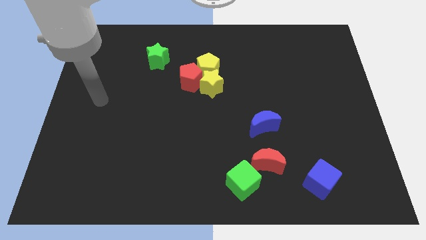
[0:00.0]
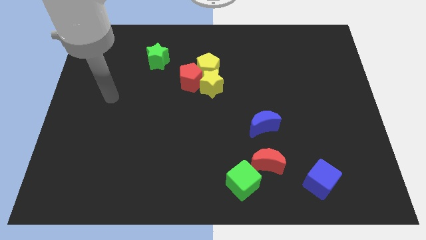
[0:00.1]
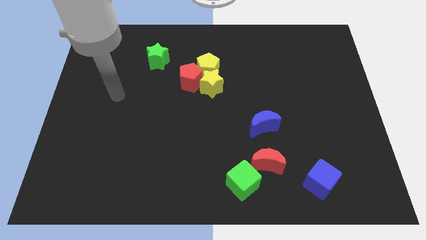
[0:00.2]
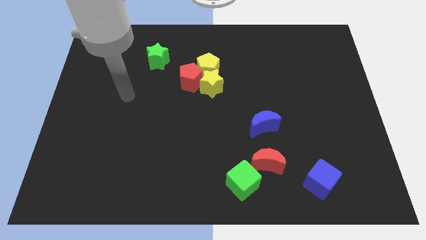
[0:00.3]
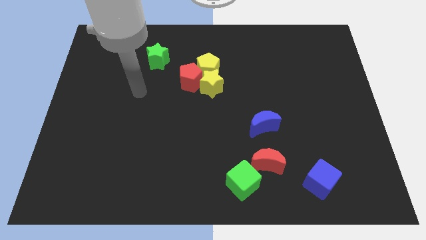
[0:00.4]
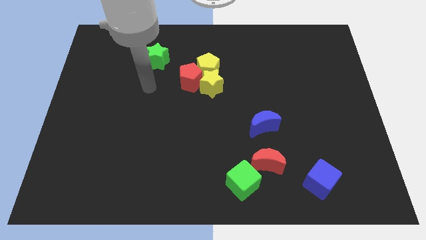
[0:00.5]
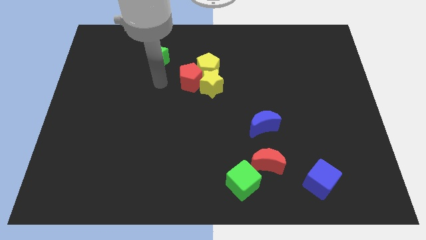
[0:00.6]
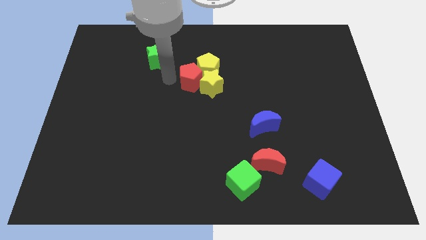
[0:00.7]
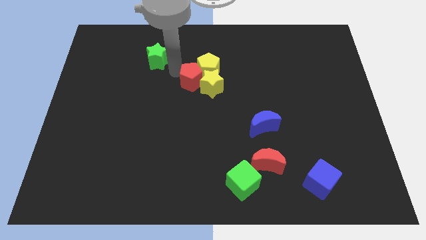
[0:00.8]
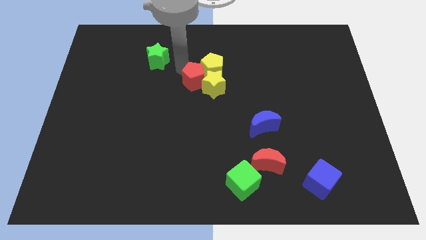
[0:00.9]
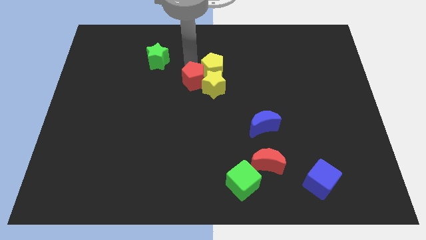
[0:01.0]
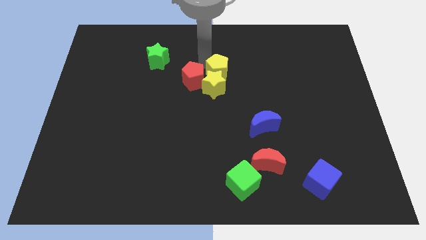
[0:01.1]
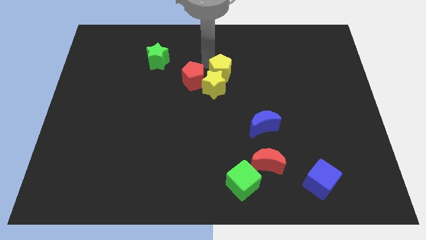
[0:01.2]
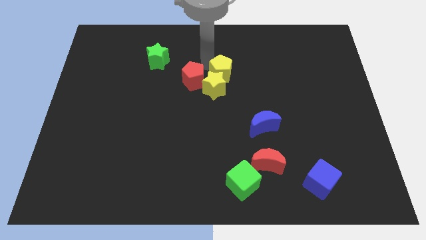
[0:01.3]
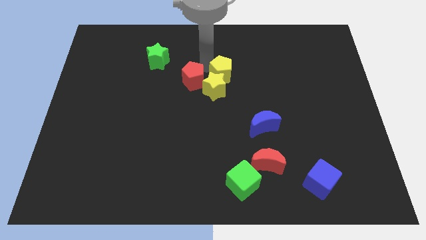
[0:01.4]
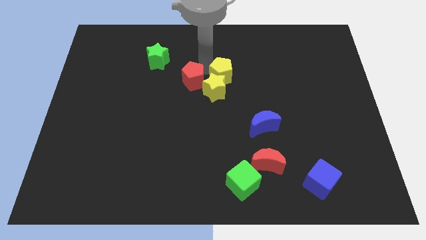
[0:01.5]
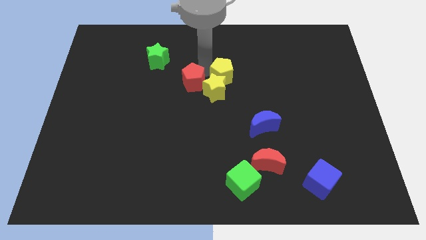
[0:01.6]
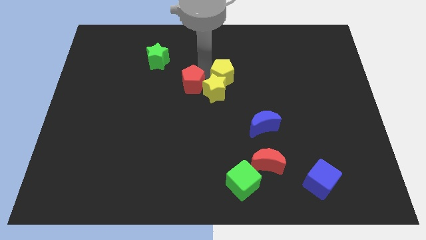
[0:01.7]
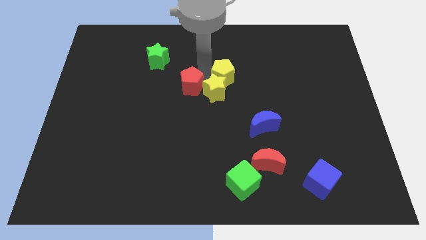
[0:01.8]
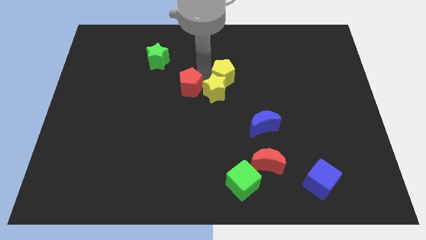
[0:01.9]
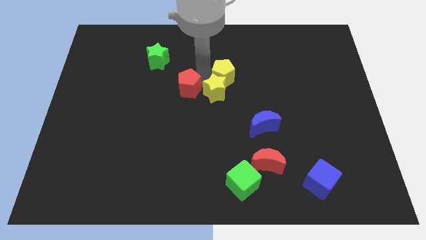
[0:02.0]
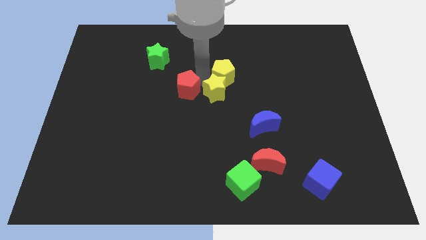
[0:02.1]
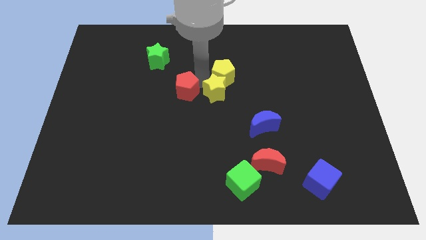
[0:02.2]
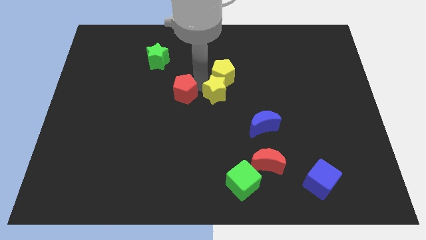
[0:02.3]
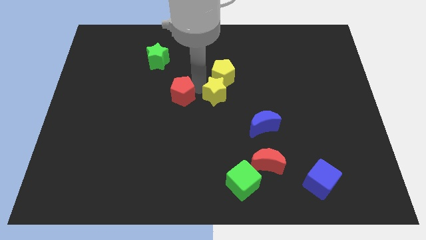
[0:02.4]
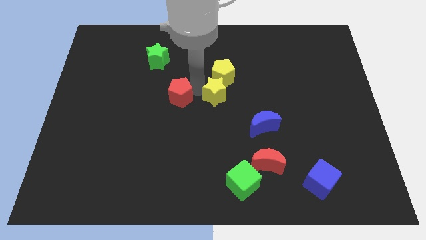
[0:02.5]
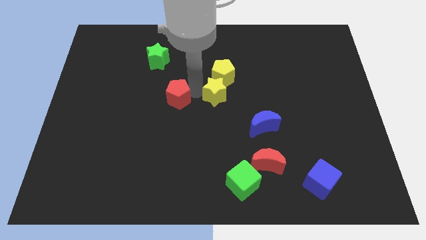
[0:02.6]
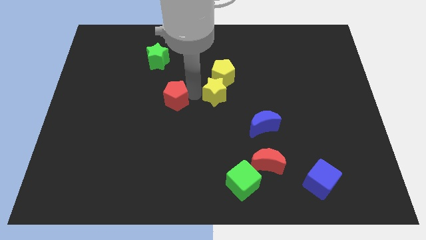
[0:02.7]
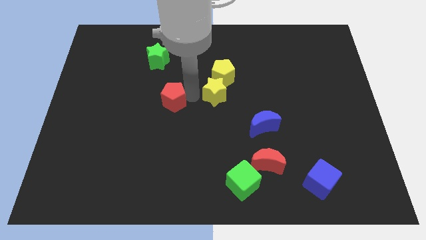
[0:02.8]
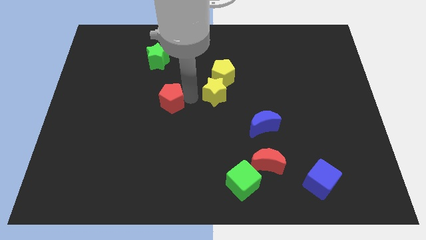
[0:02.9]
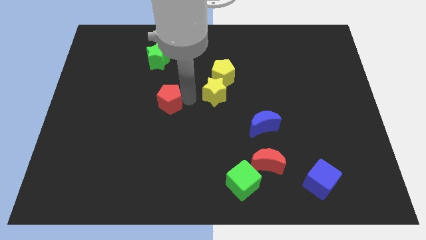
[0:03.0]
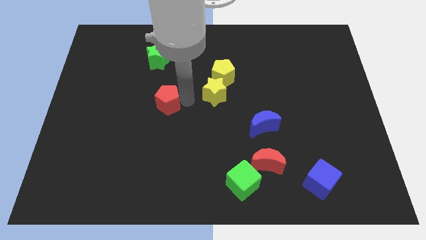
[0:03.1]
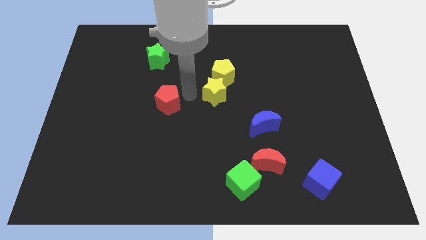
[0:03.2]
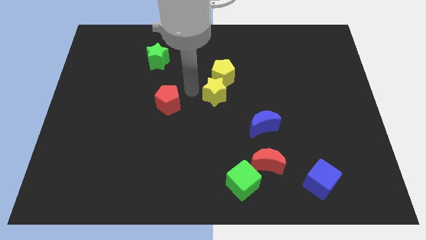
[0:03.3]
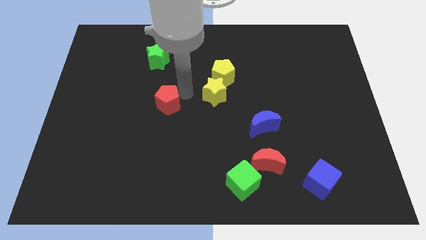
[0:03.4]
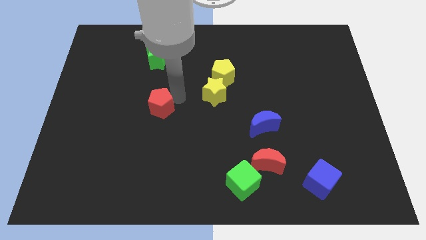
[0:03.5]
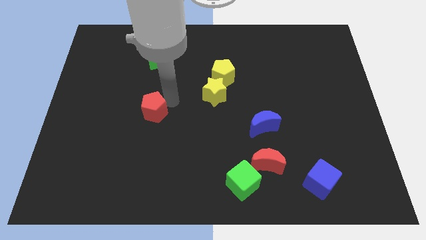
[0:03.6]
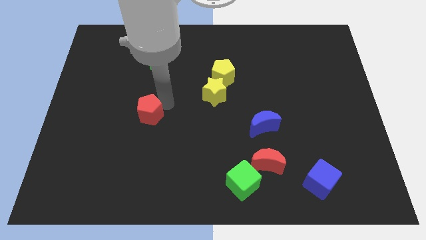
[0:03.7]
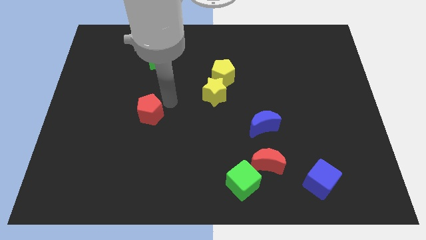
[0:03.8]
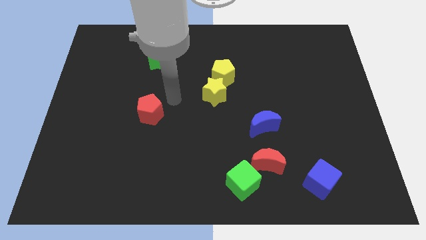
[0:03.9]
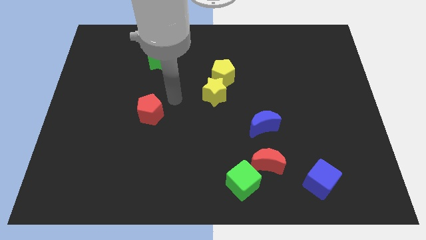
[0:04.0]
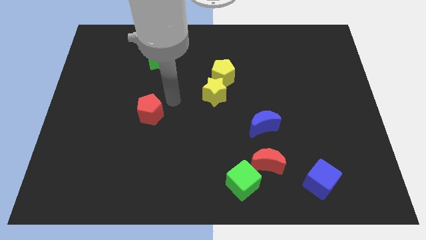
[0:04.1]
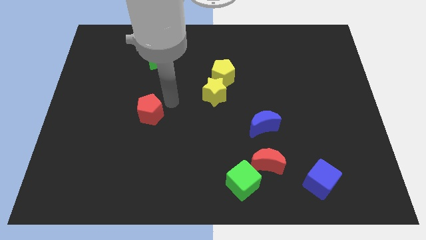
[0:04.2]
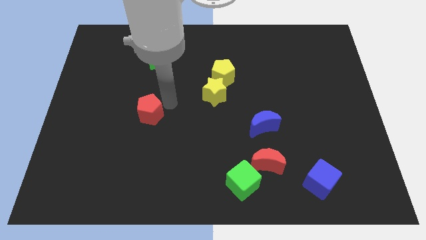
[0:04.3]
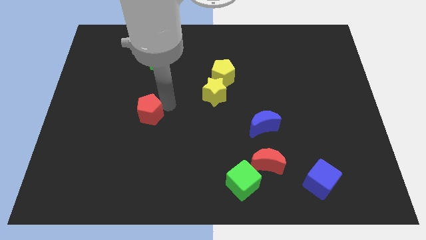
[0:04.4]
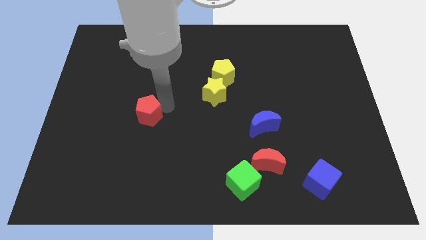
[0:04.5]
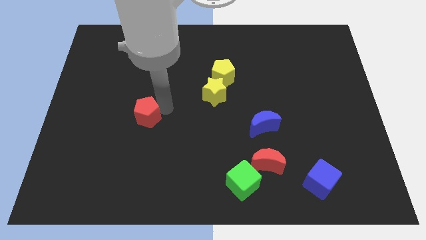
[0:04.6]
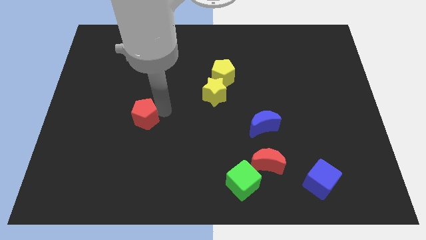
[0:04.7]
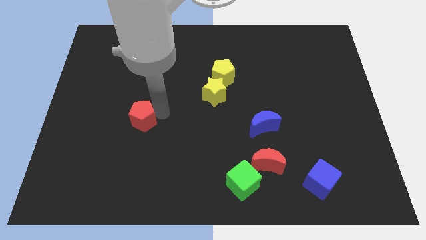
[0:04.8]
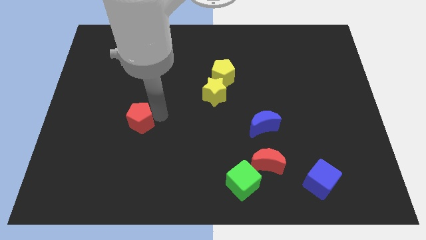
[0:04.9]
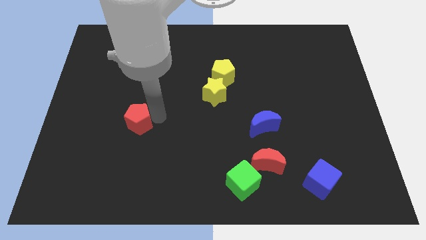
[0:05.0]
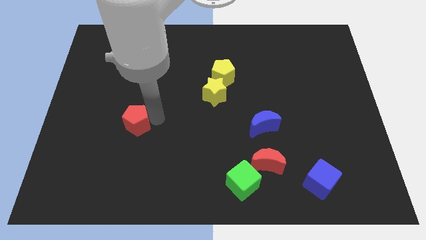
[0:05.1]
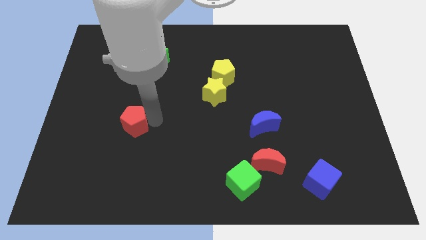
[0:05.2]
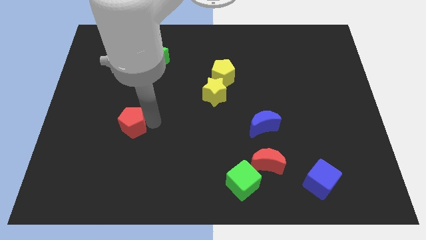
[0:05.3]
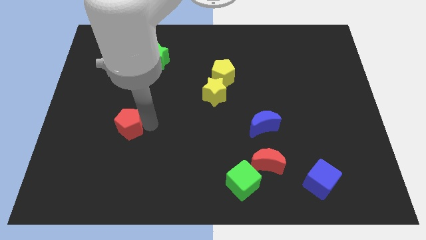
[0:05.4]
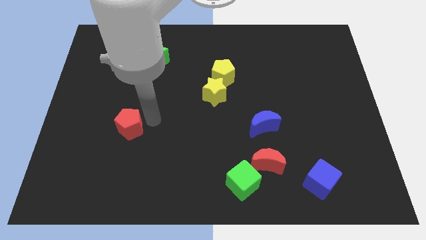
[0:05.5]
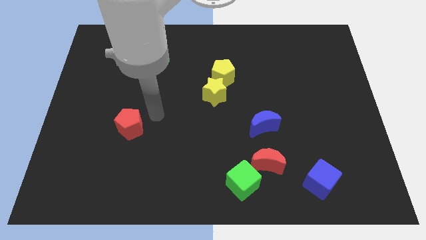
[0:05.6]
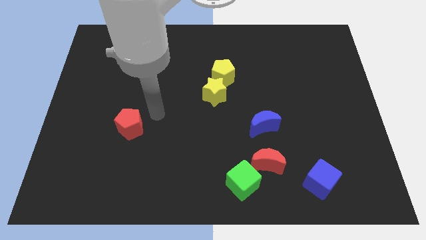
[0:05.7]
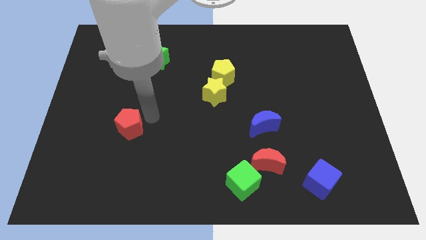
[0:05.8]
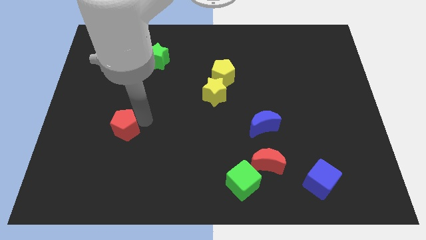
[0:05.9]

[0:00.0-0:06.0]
slide the red pentagon diagonally downwards and left

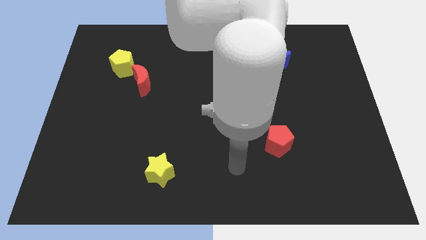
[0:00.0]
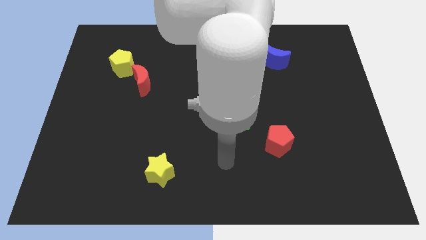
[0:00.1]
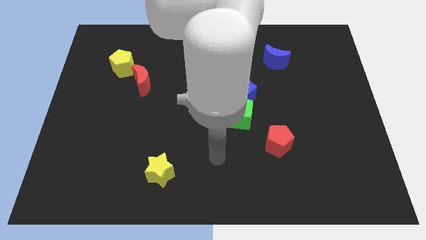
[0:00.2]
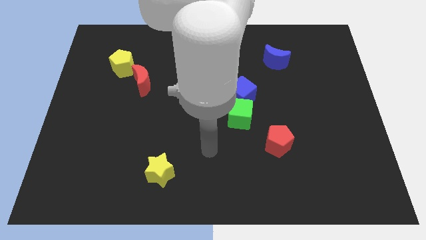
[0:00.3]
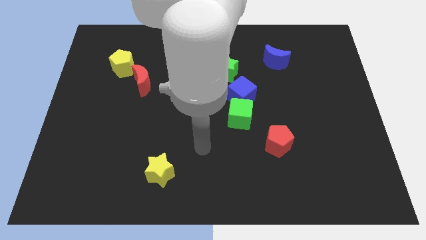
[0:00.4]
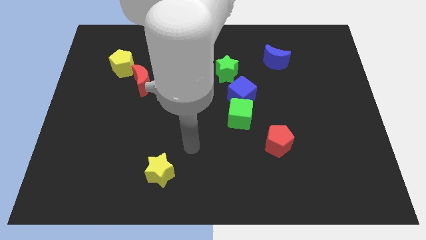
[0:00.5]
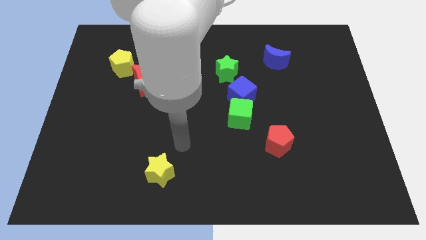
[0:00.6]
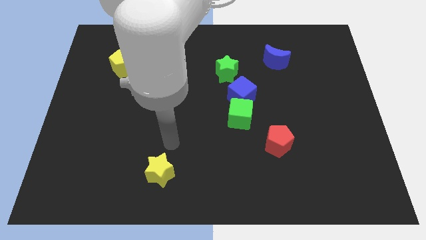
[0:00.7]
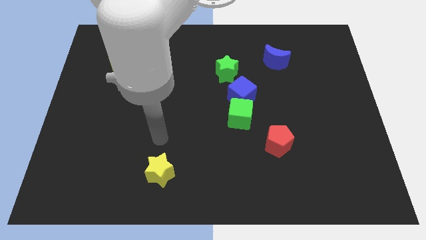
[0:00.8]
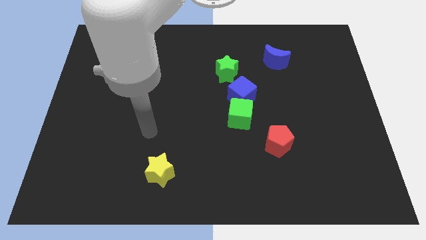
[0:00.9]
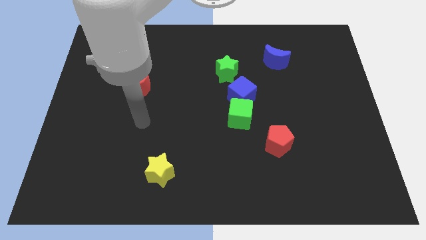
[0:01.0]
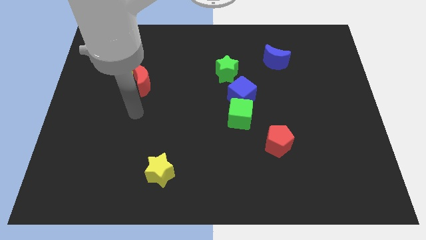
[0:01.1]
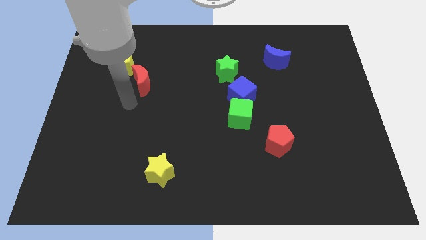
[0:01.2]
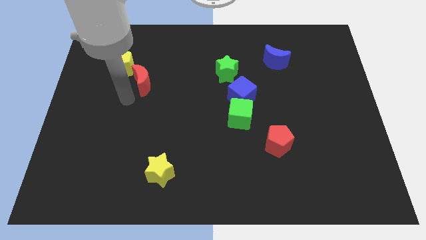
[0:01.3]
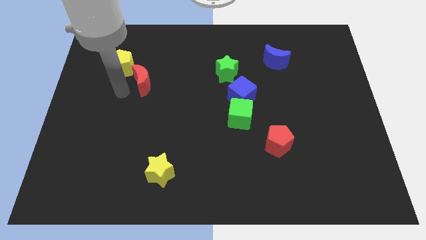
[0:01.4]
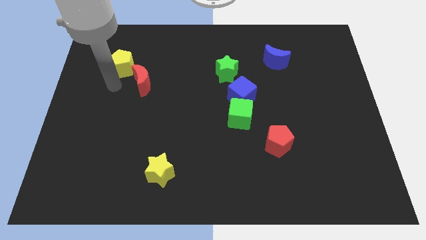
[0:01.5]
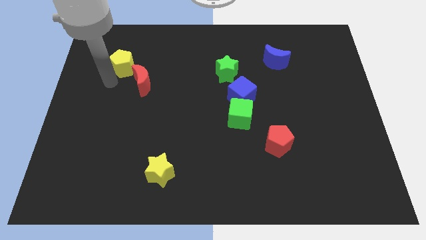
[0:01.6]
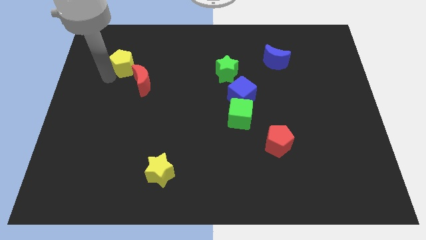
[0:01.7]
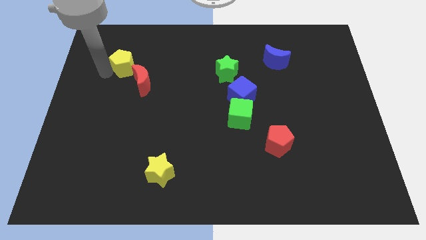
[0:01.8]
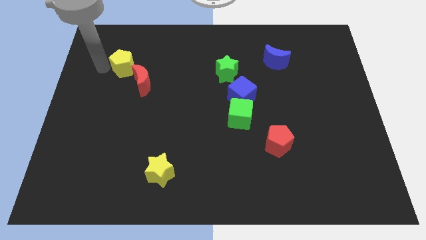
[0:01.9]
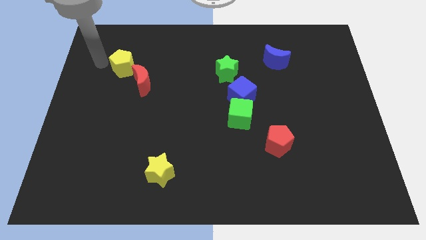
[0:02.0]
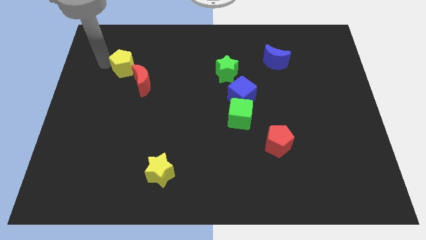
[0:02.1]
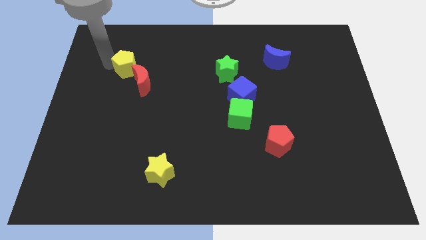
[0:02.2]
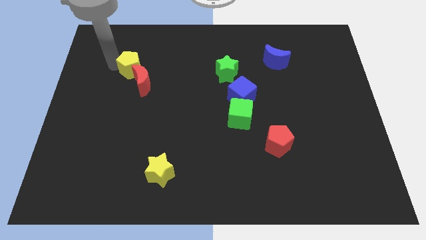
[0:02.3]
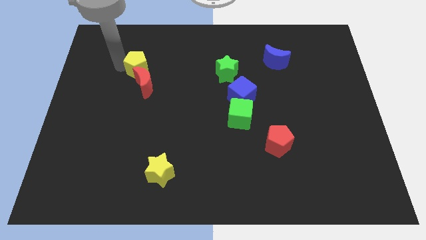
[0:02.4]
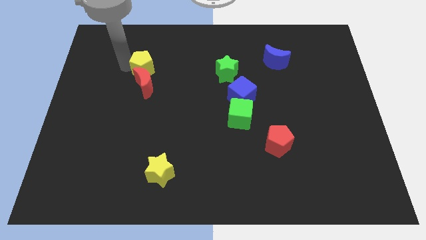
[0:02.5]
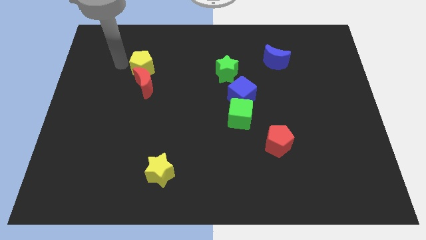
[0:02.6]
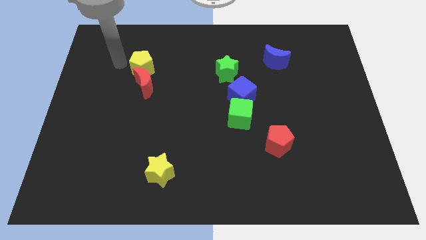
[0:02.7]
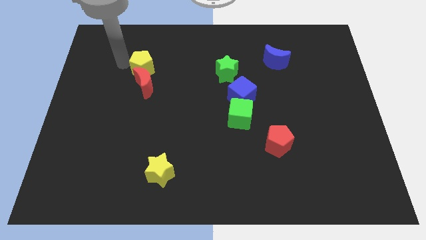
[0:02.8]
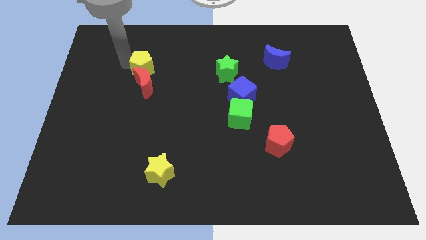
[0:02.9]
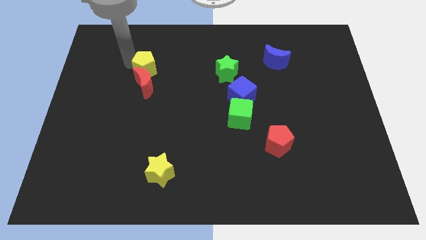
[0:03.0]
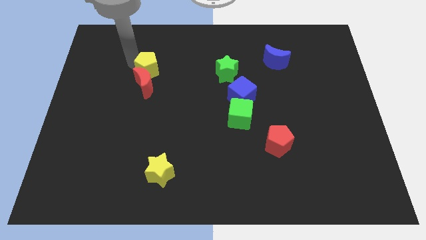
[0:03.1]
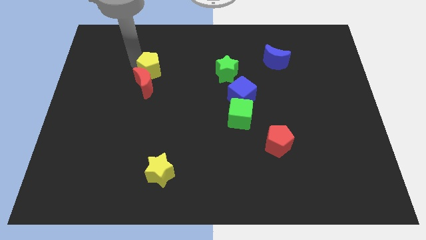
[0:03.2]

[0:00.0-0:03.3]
slide the yellow pentagon to the right a little
